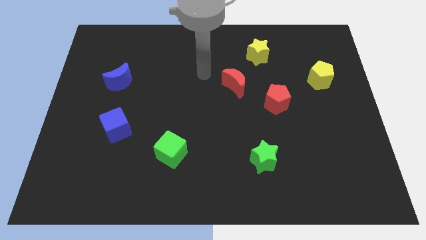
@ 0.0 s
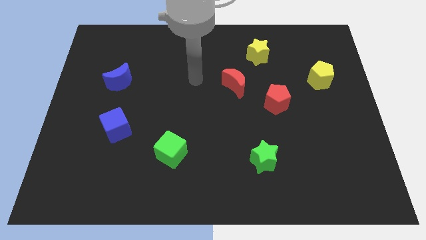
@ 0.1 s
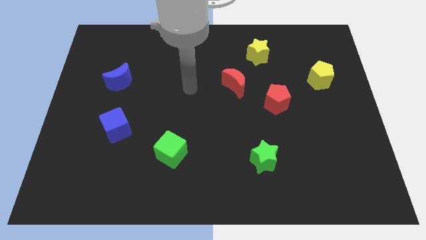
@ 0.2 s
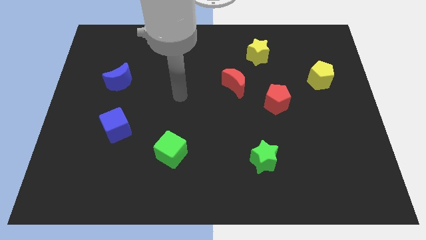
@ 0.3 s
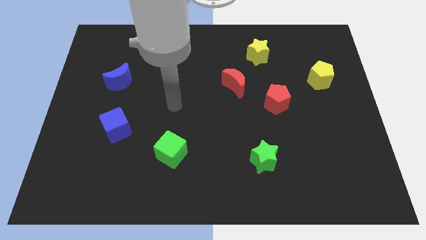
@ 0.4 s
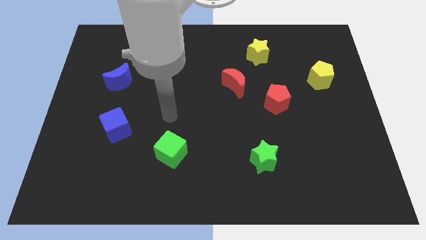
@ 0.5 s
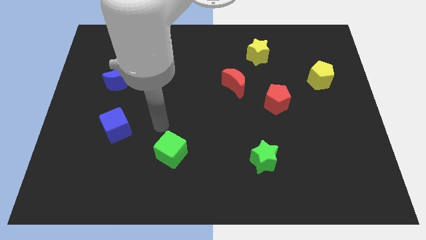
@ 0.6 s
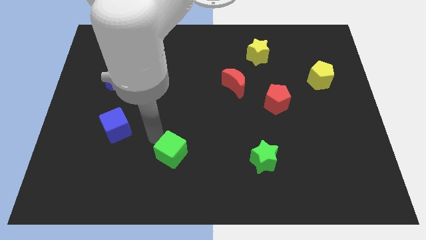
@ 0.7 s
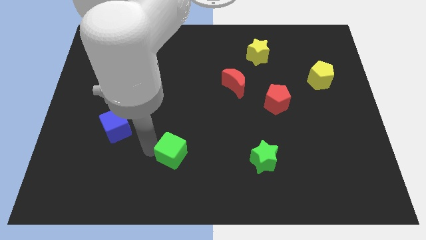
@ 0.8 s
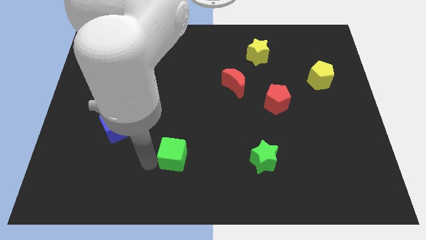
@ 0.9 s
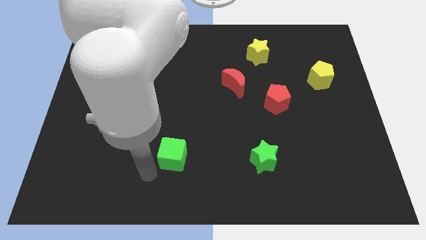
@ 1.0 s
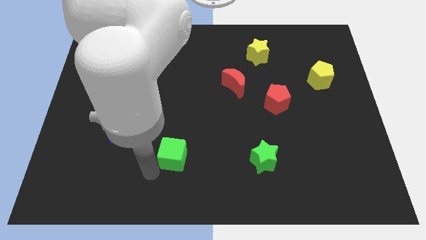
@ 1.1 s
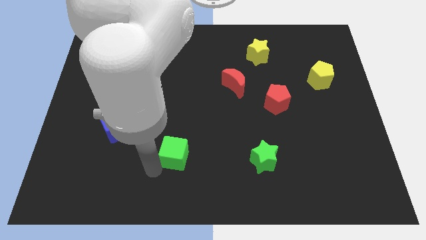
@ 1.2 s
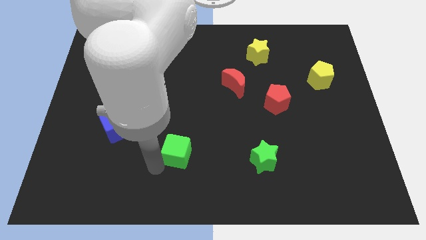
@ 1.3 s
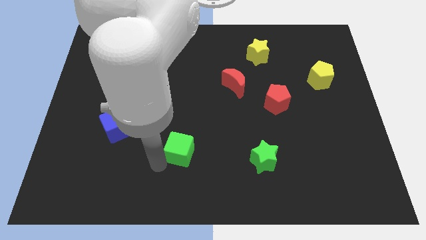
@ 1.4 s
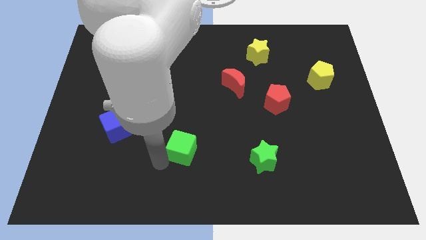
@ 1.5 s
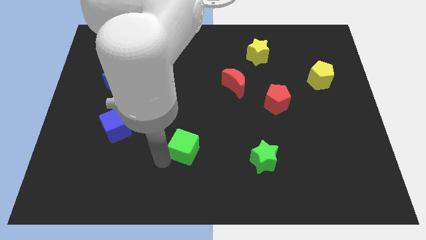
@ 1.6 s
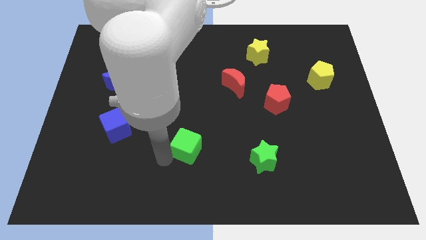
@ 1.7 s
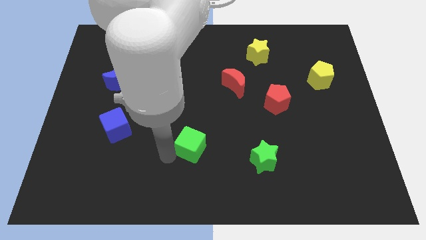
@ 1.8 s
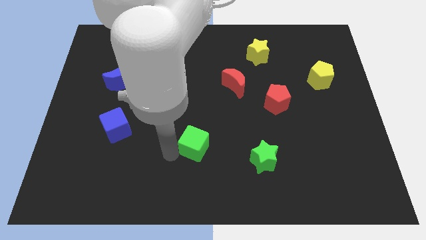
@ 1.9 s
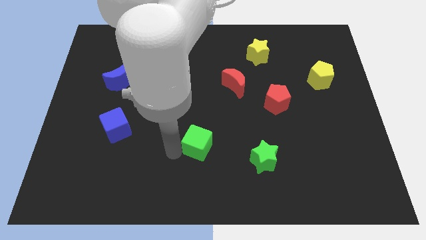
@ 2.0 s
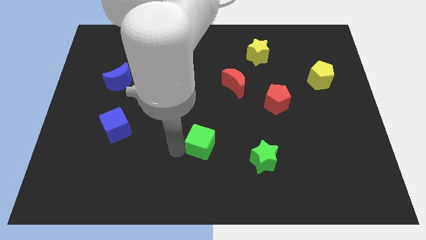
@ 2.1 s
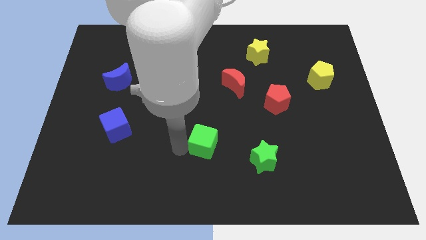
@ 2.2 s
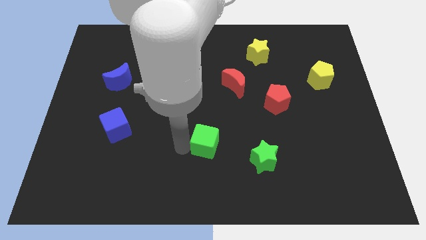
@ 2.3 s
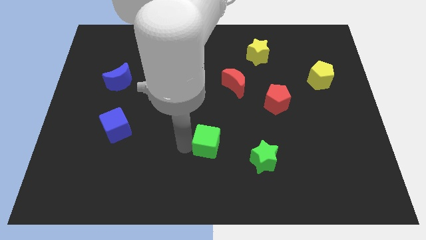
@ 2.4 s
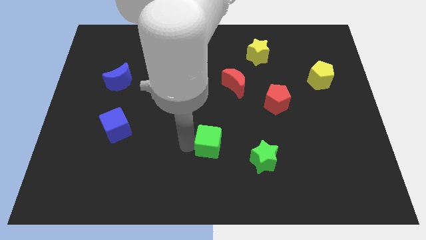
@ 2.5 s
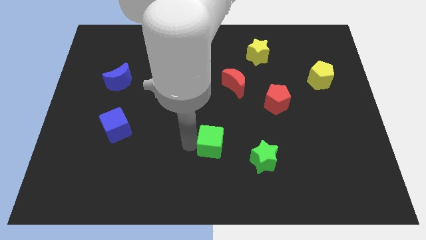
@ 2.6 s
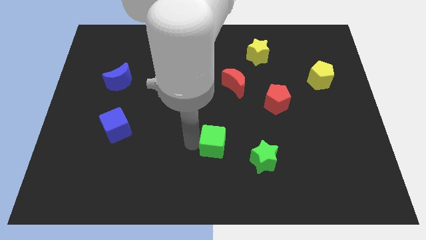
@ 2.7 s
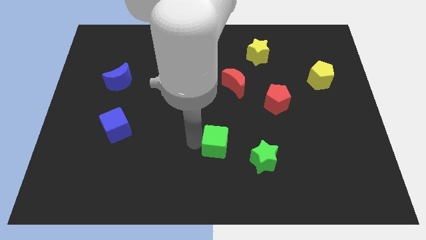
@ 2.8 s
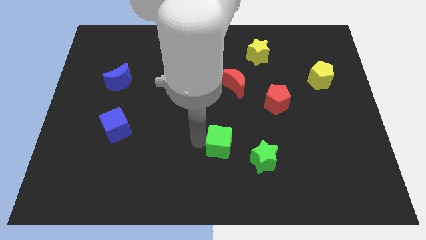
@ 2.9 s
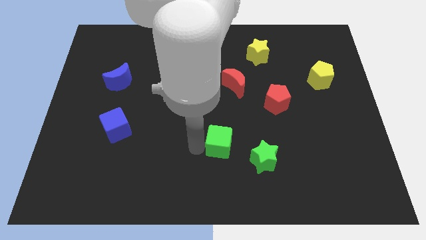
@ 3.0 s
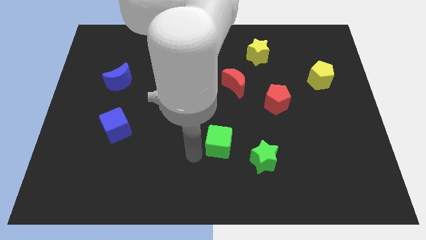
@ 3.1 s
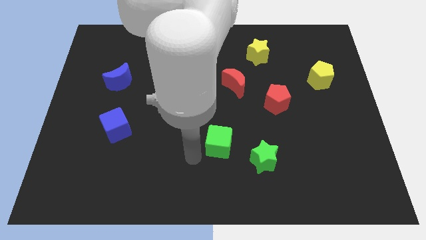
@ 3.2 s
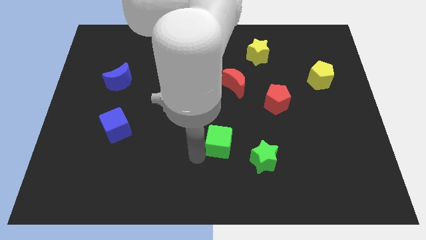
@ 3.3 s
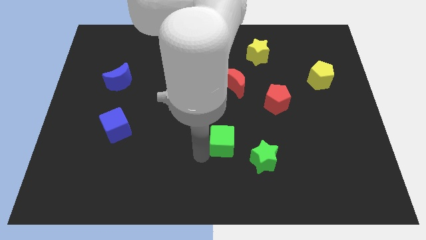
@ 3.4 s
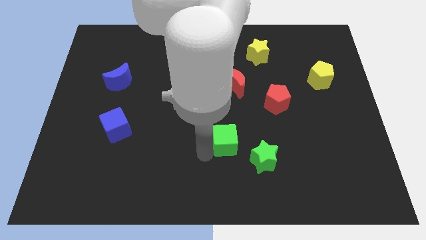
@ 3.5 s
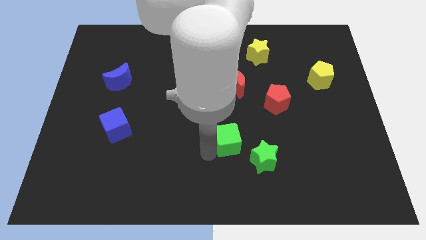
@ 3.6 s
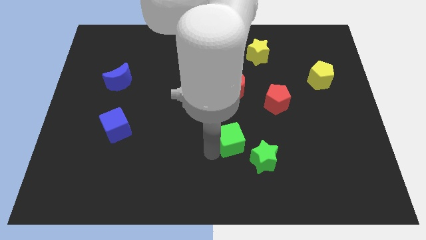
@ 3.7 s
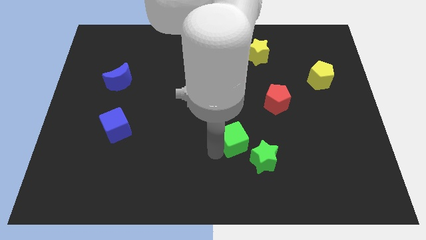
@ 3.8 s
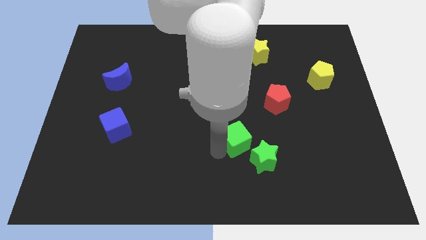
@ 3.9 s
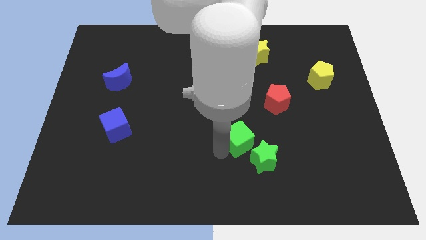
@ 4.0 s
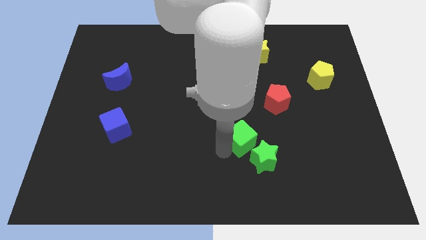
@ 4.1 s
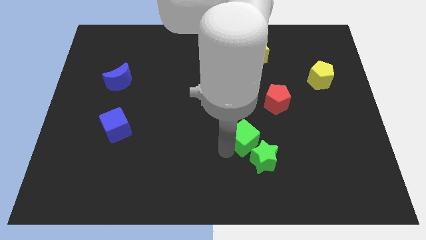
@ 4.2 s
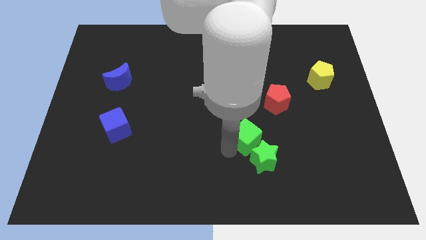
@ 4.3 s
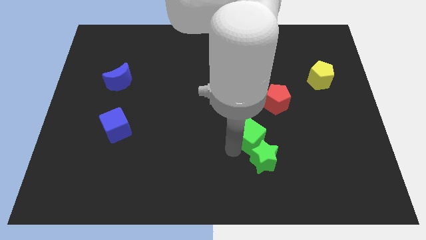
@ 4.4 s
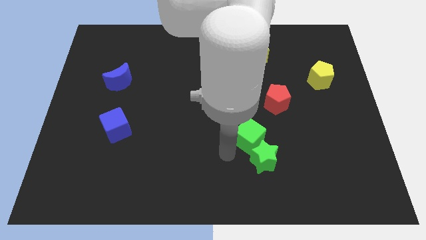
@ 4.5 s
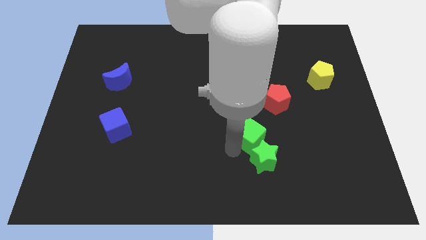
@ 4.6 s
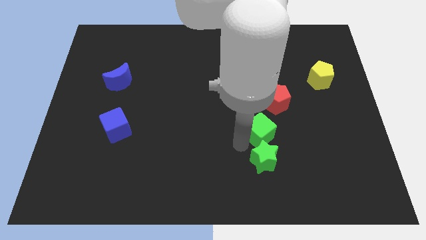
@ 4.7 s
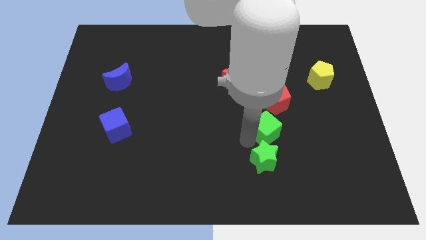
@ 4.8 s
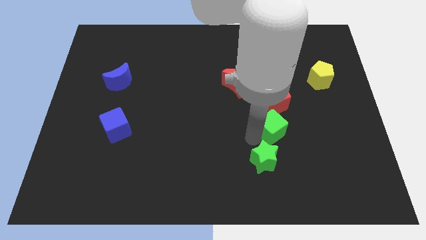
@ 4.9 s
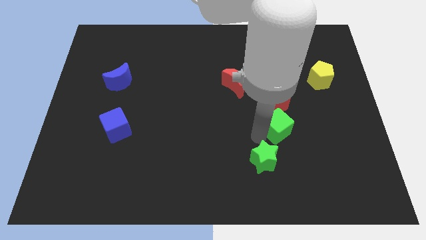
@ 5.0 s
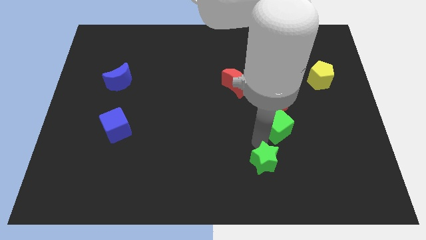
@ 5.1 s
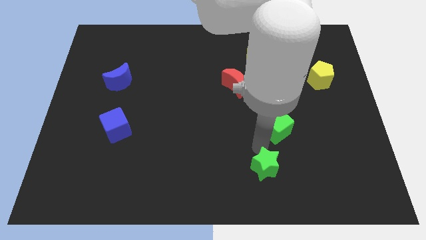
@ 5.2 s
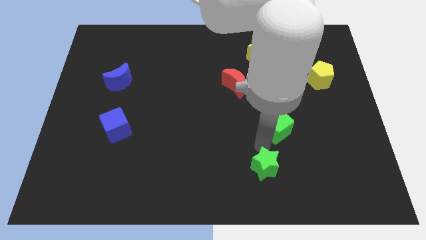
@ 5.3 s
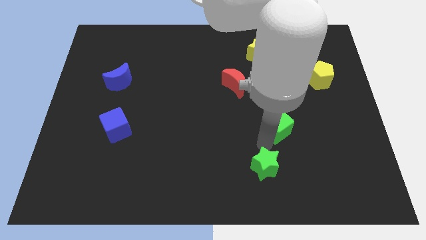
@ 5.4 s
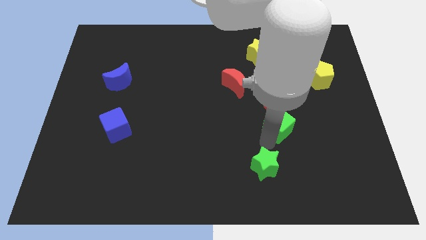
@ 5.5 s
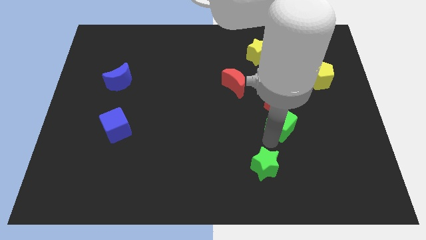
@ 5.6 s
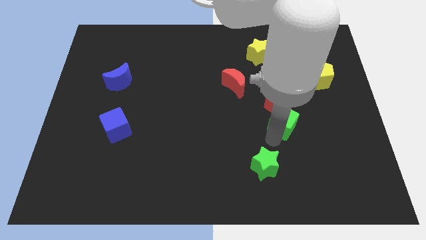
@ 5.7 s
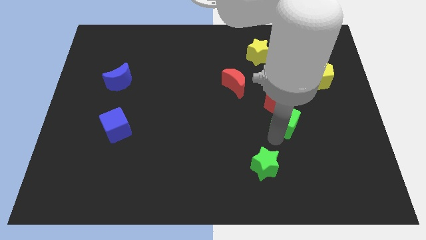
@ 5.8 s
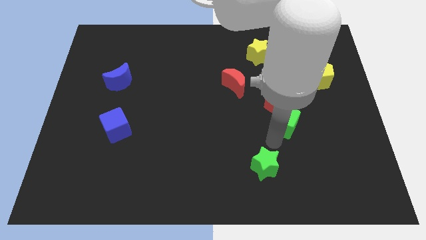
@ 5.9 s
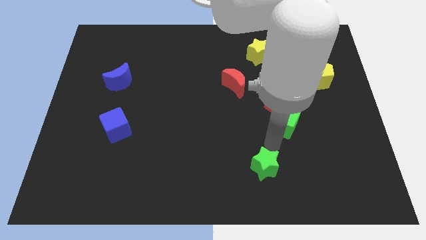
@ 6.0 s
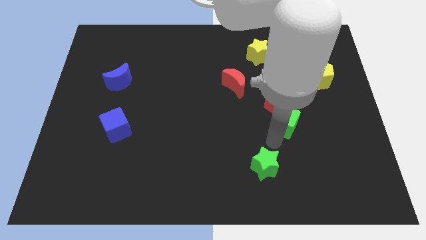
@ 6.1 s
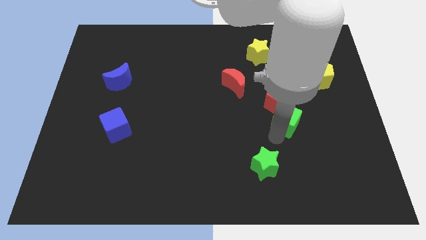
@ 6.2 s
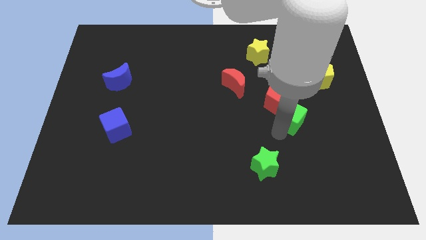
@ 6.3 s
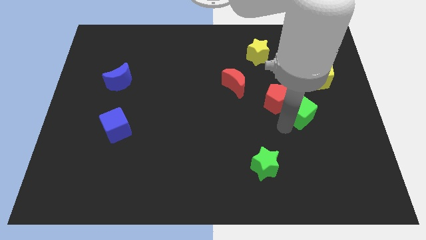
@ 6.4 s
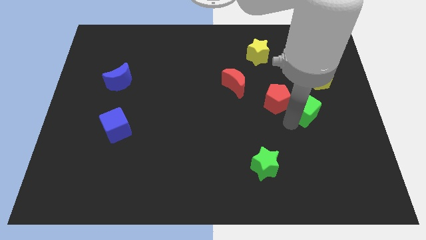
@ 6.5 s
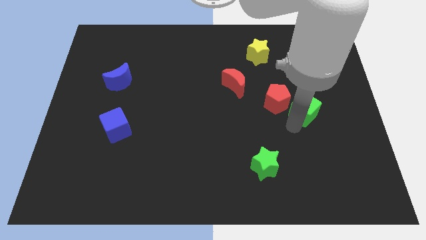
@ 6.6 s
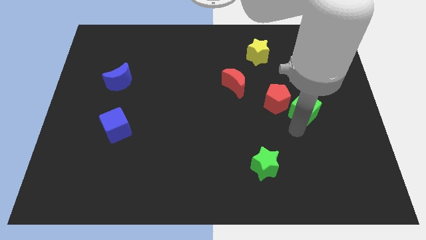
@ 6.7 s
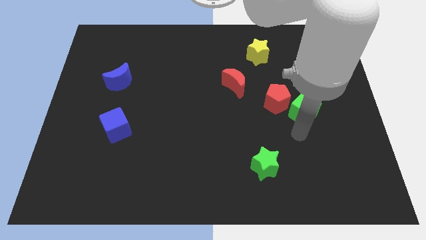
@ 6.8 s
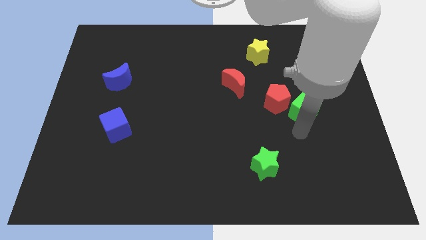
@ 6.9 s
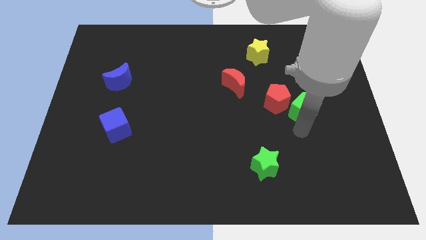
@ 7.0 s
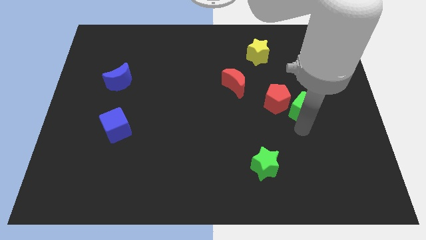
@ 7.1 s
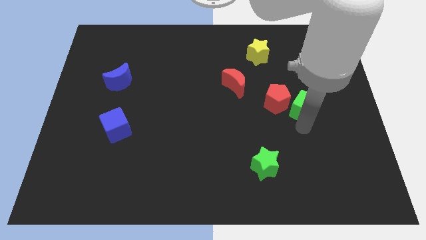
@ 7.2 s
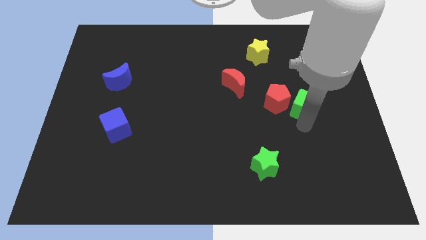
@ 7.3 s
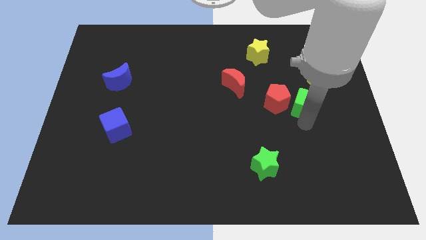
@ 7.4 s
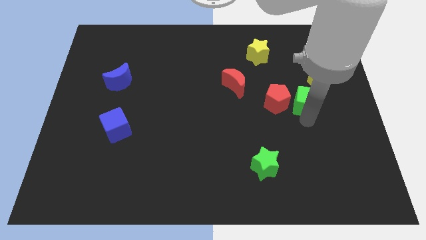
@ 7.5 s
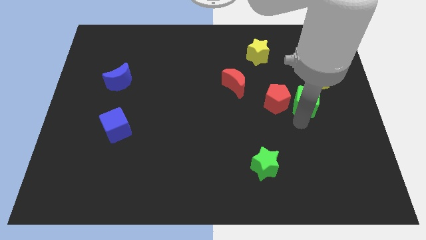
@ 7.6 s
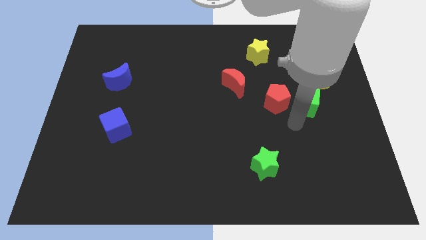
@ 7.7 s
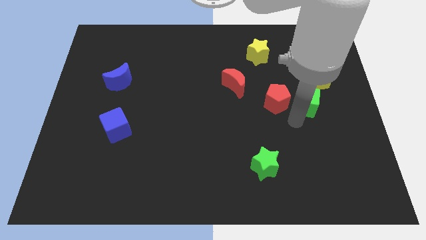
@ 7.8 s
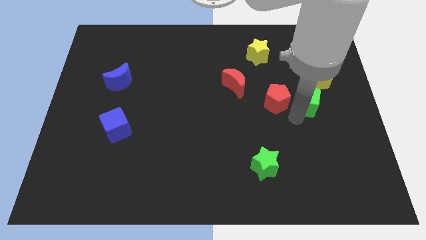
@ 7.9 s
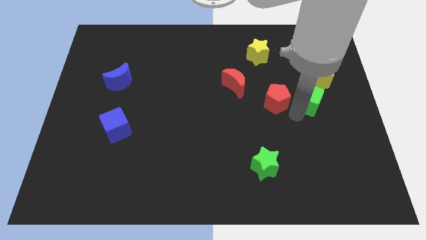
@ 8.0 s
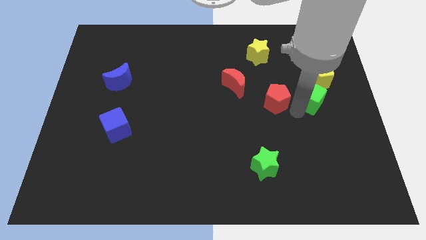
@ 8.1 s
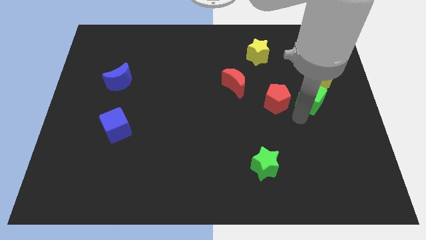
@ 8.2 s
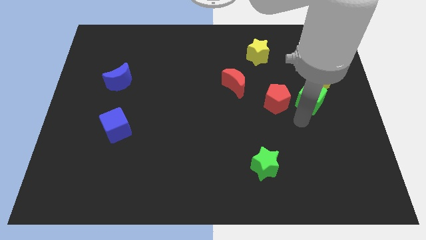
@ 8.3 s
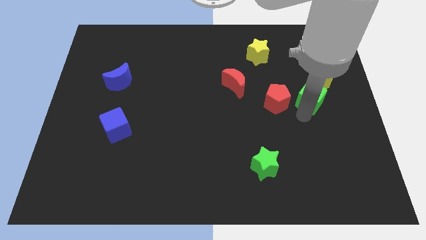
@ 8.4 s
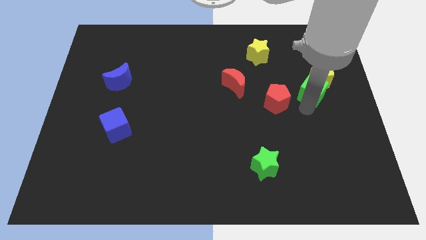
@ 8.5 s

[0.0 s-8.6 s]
move the green cube towards the yellow pentagon
